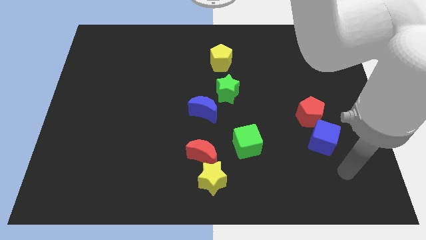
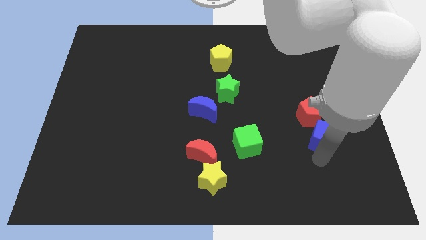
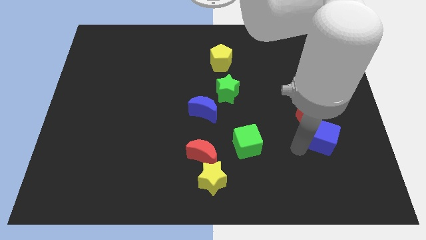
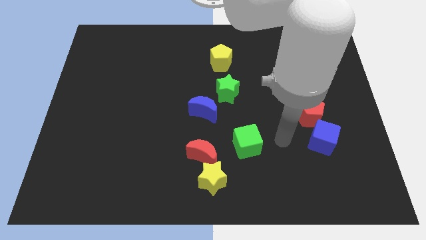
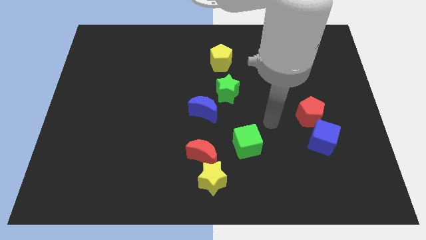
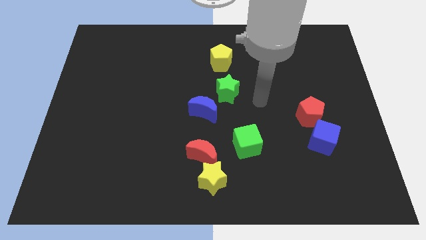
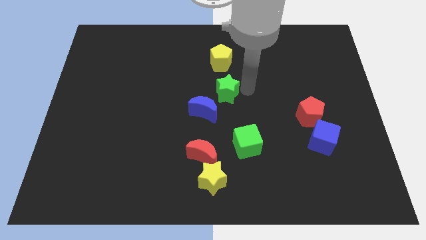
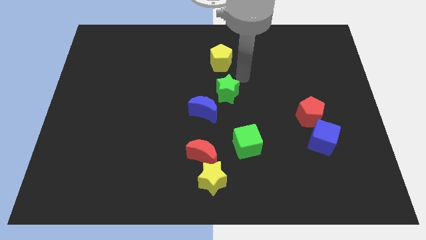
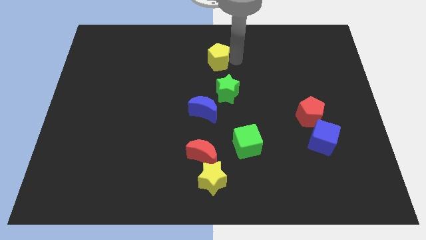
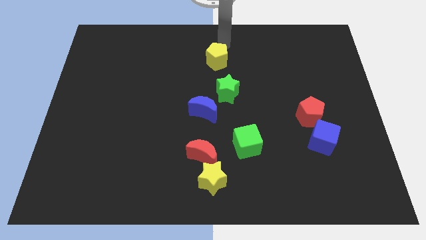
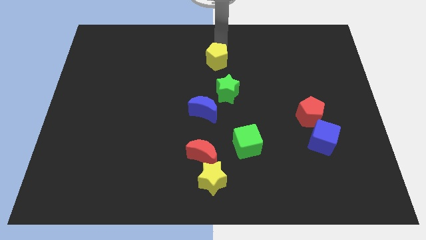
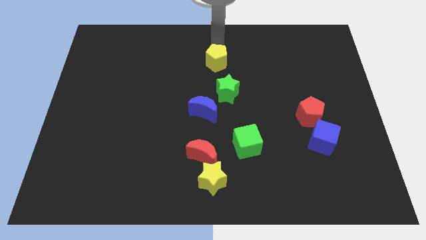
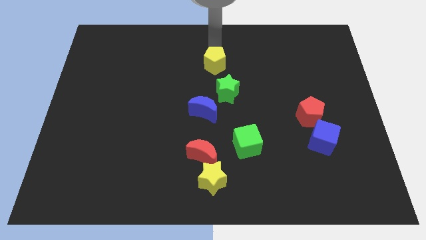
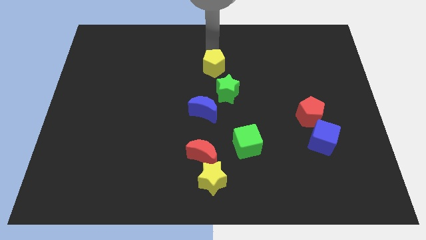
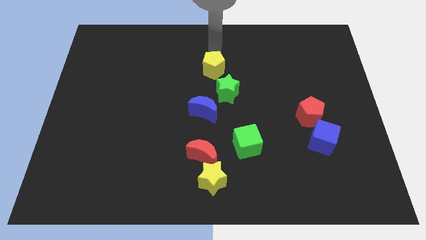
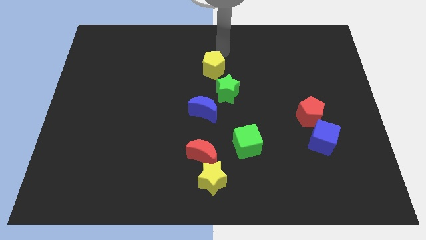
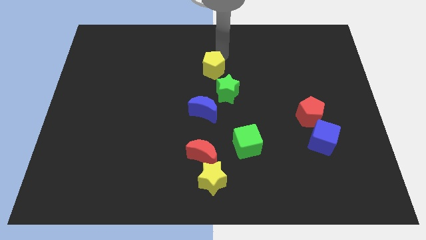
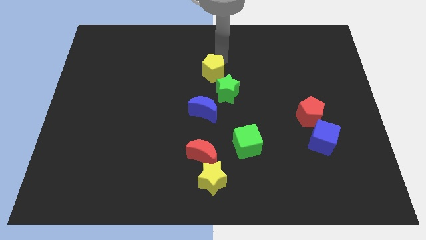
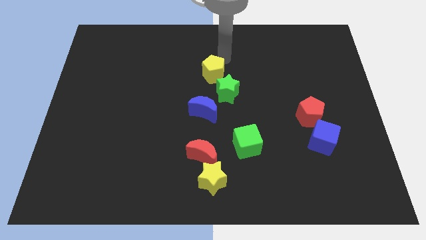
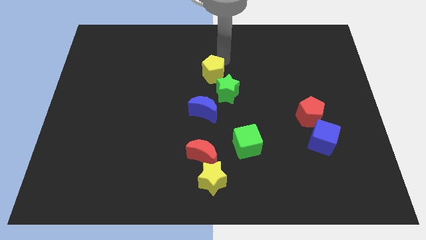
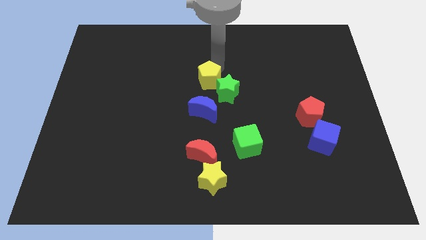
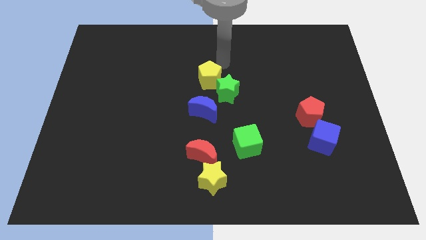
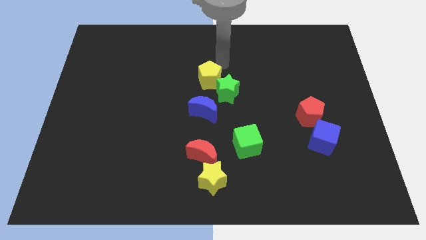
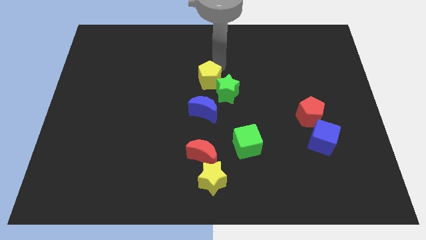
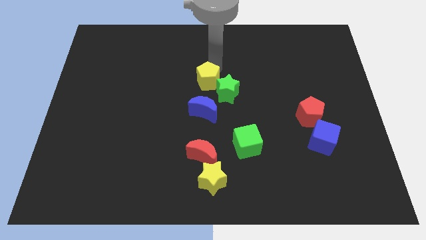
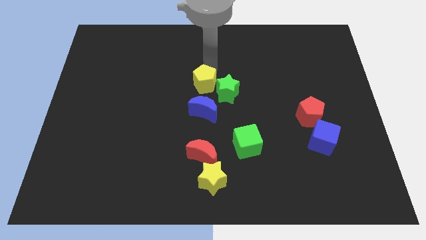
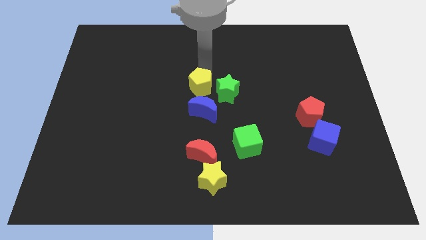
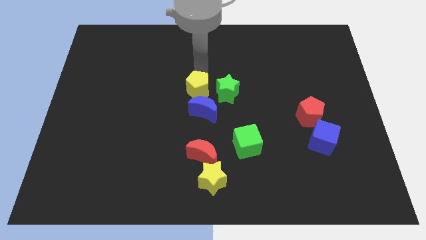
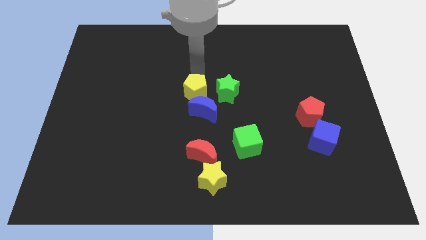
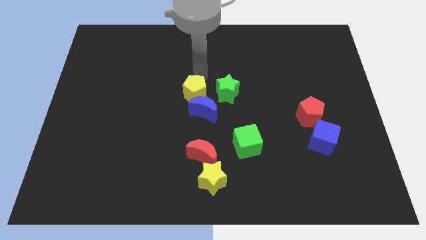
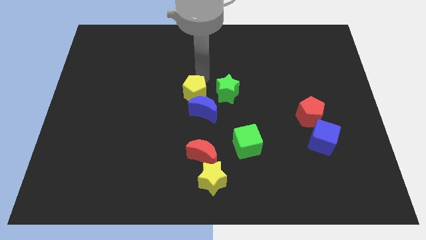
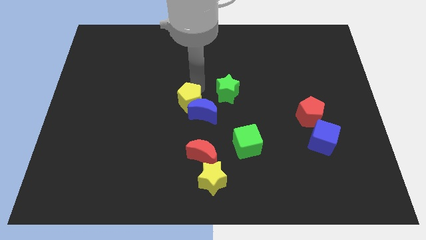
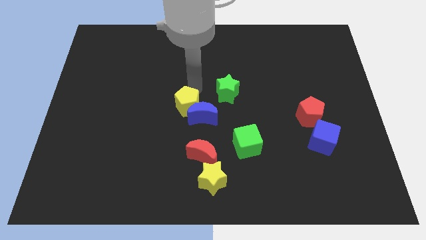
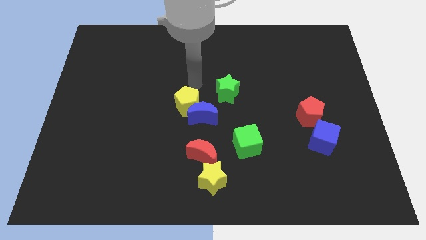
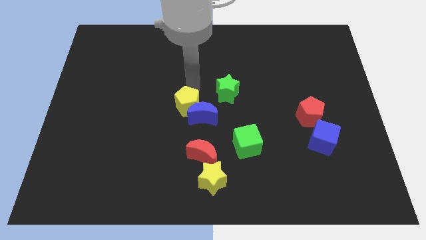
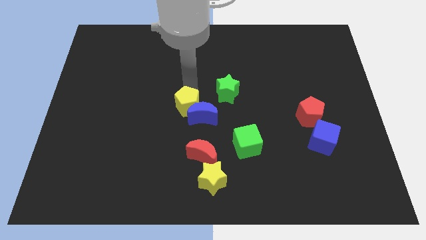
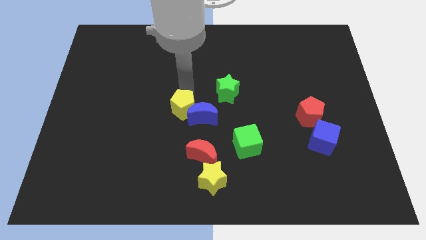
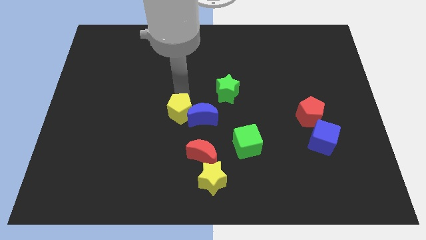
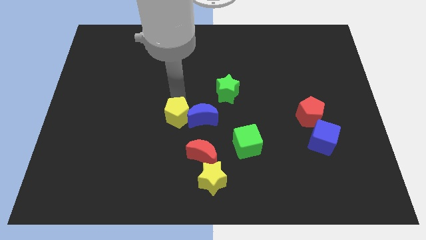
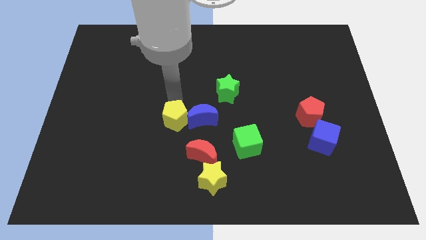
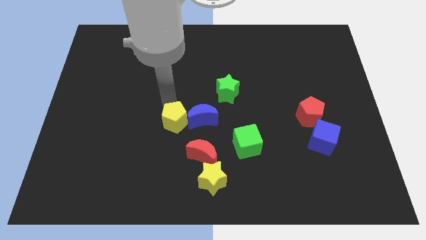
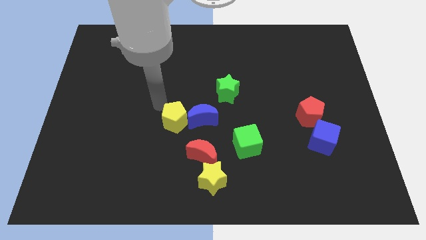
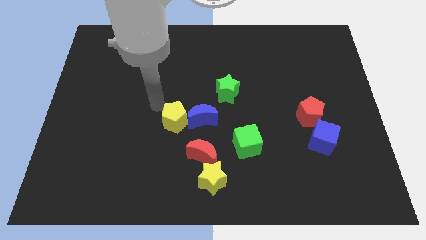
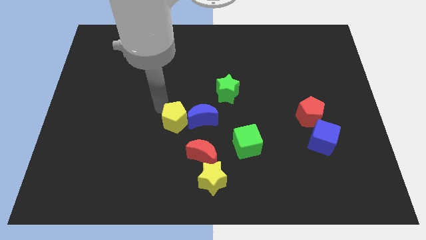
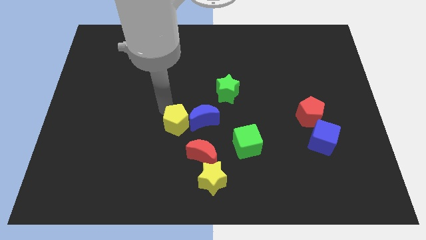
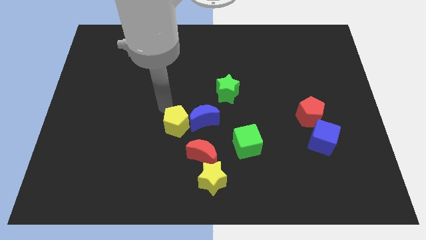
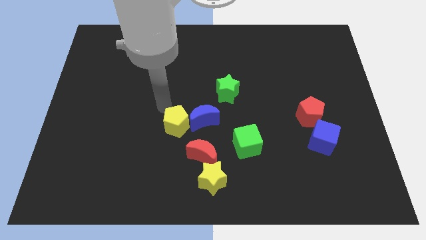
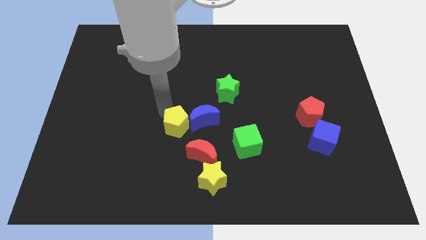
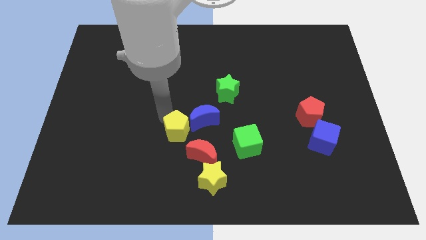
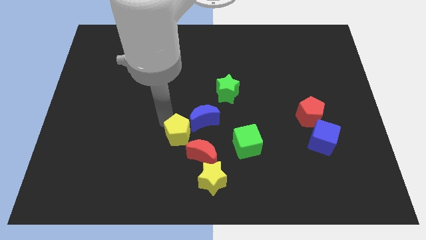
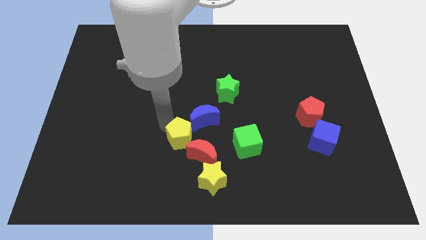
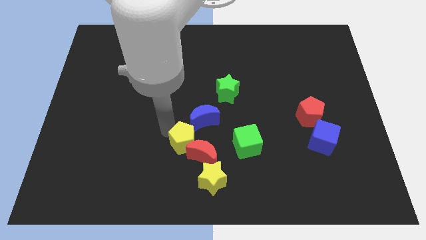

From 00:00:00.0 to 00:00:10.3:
slide the yellow pentagon close to the red moon

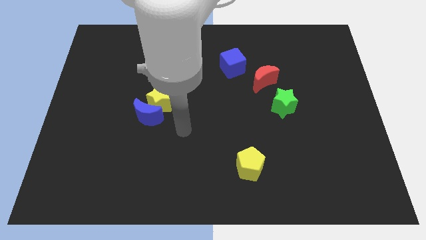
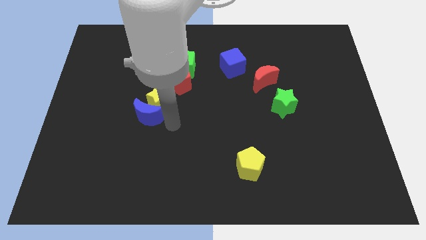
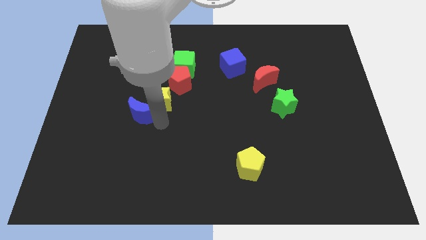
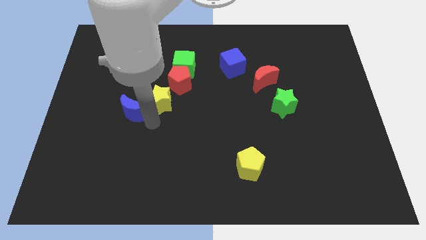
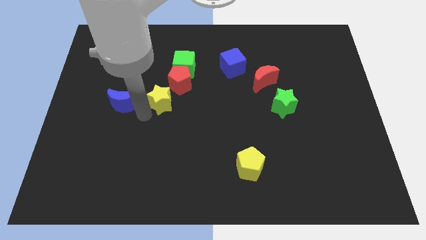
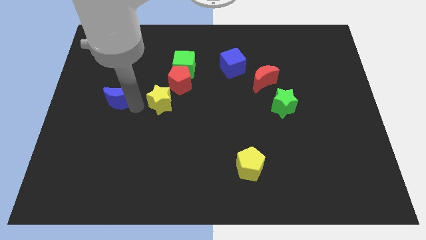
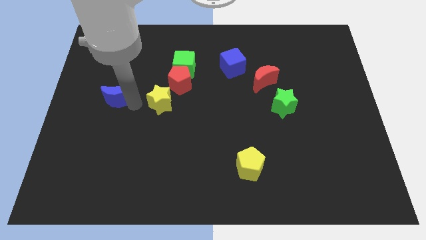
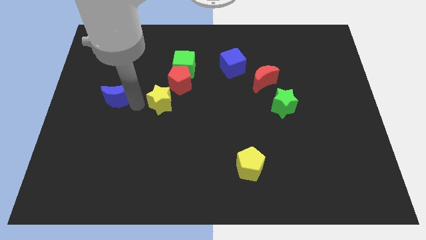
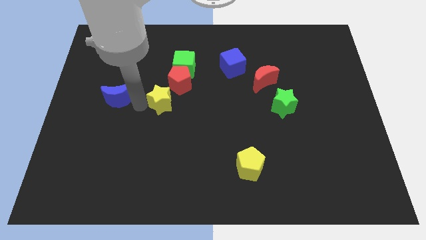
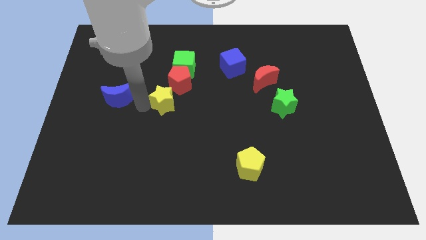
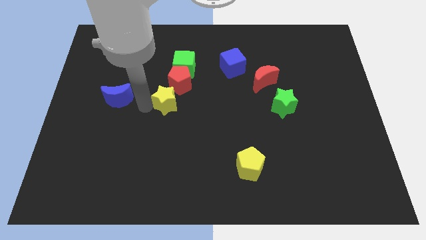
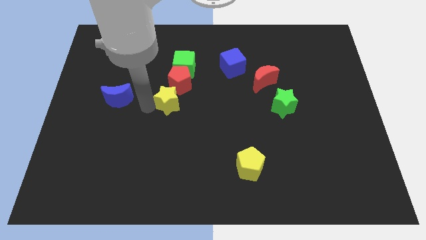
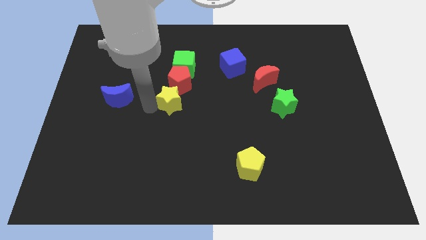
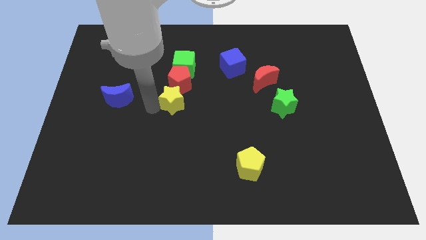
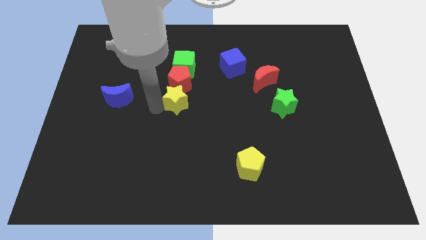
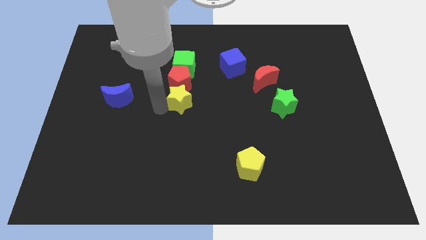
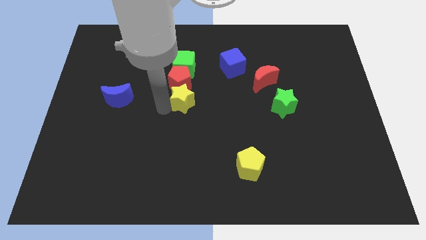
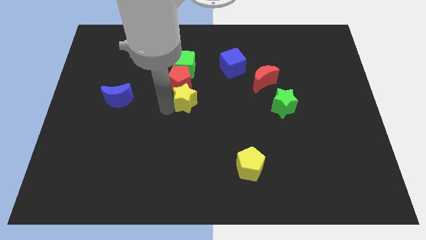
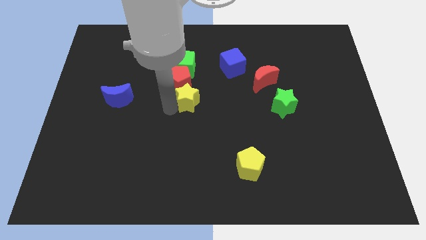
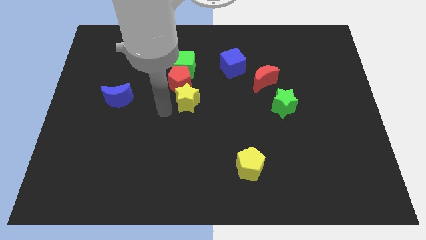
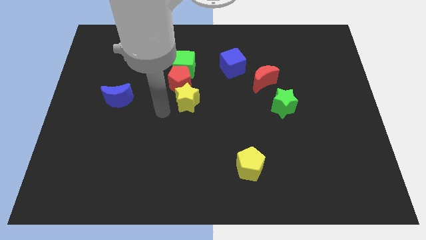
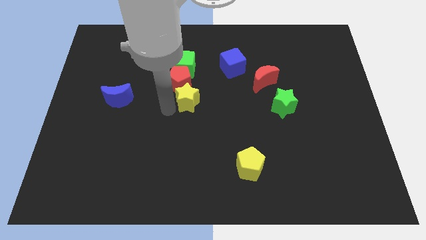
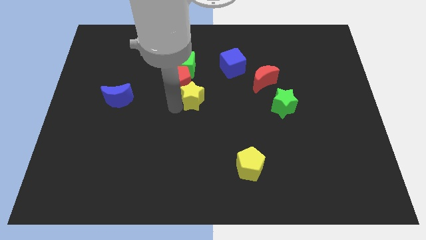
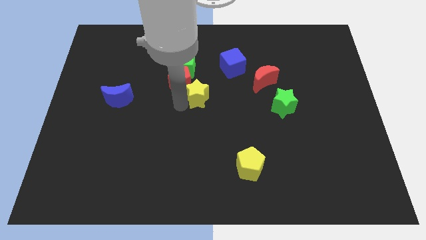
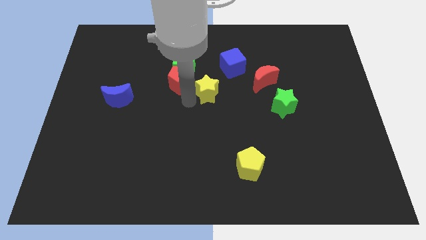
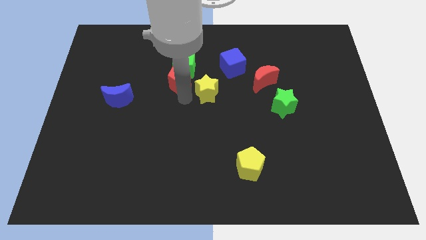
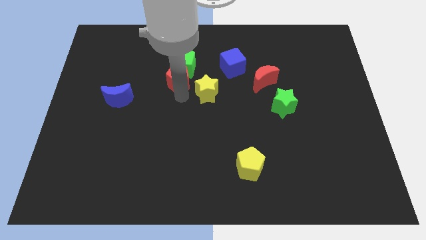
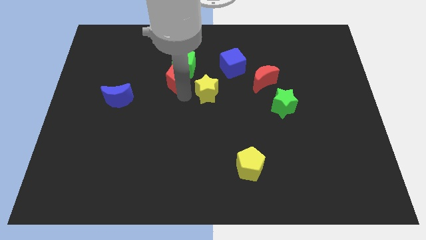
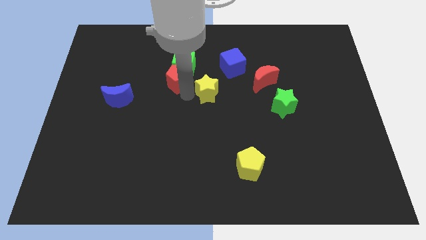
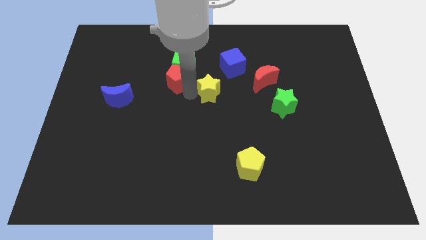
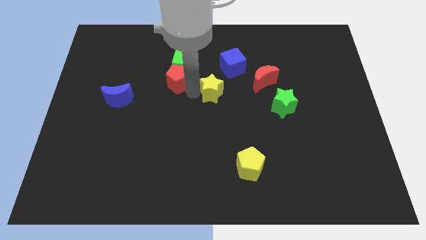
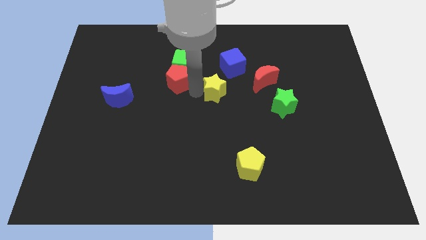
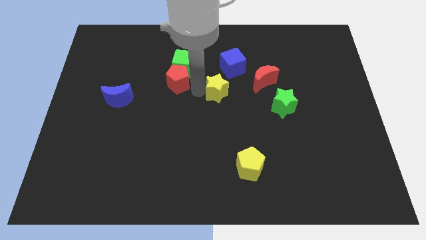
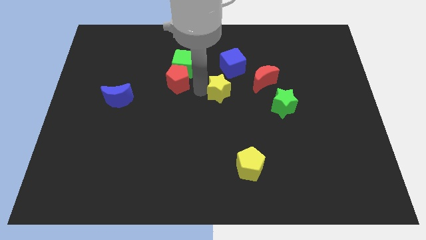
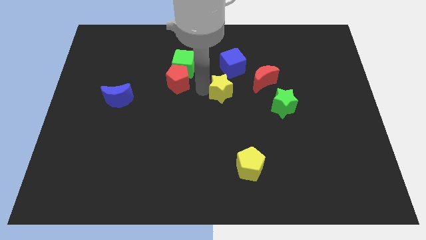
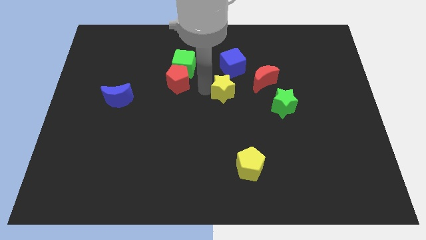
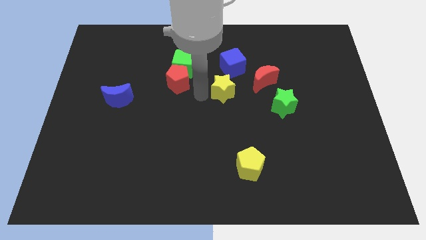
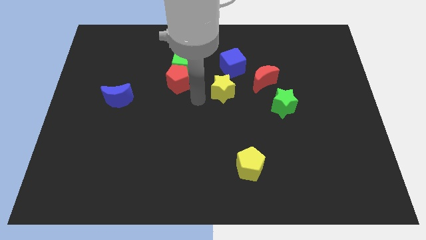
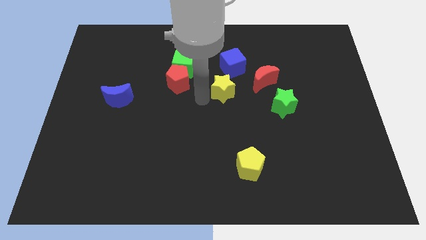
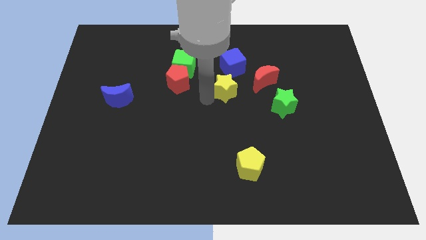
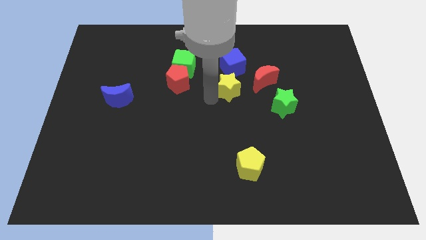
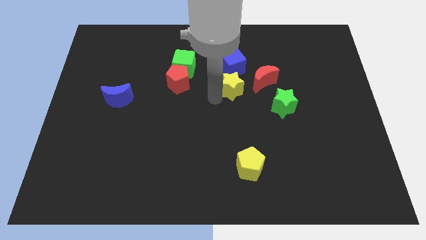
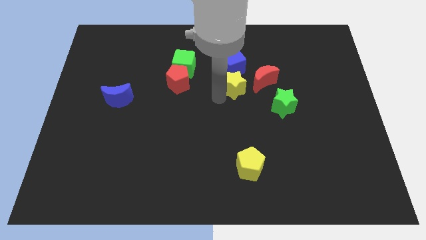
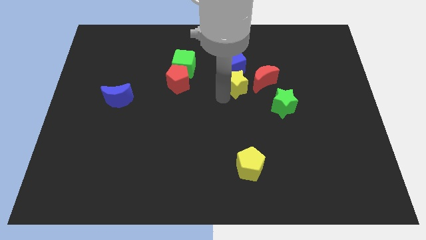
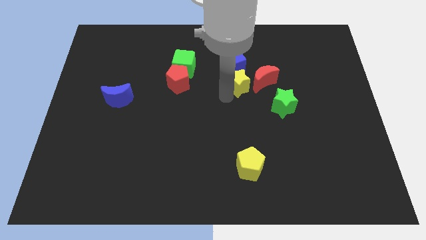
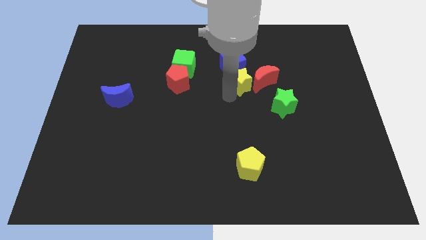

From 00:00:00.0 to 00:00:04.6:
put the yellow star to the red moon
